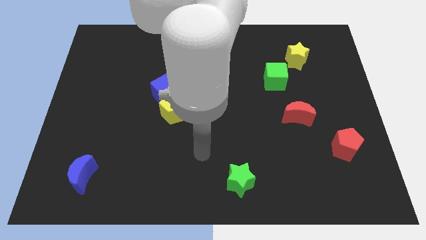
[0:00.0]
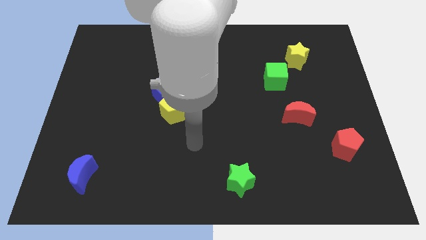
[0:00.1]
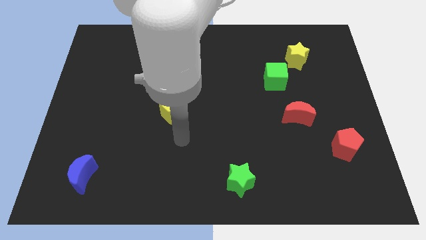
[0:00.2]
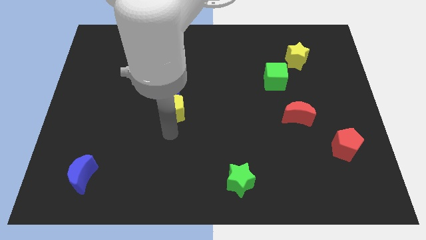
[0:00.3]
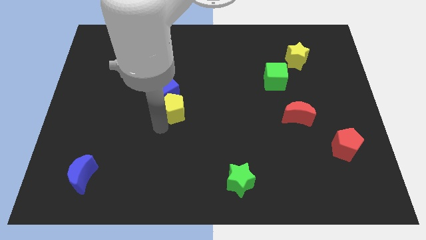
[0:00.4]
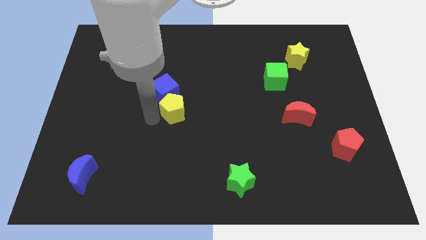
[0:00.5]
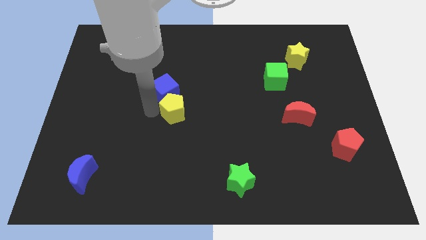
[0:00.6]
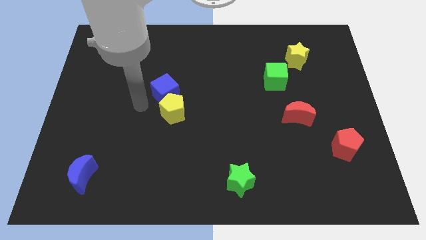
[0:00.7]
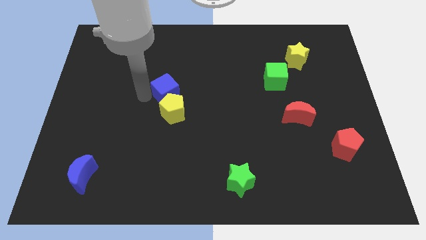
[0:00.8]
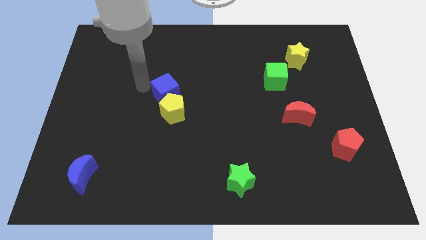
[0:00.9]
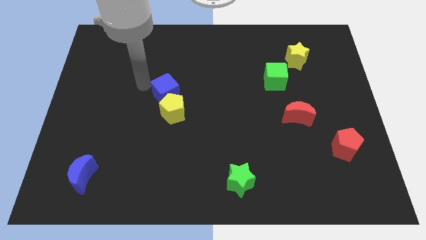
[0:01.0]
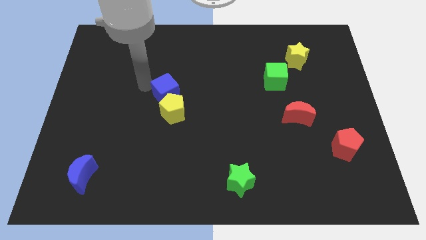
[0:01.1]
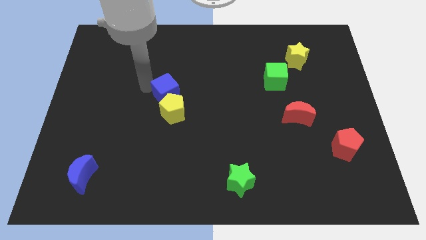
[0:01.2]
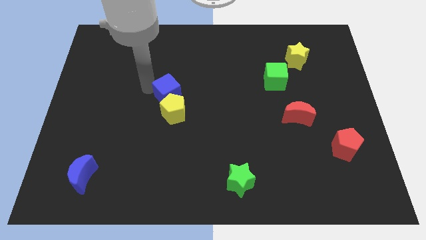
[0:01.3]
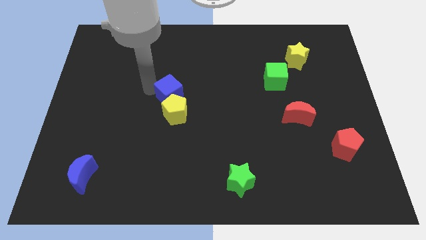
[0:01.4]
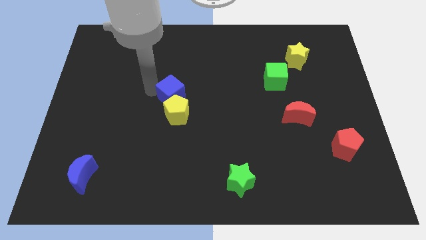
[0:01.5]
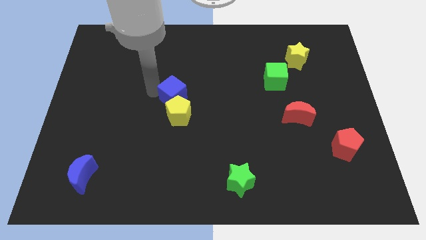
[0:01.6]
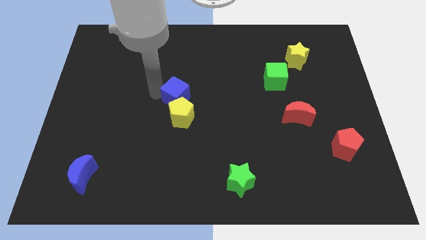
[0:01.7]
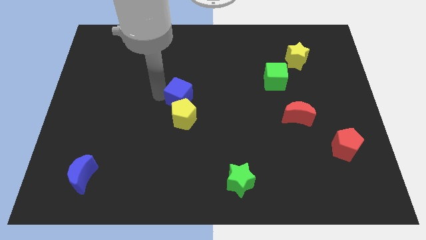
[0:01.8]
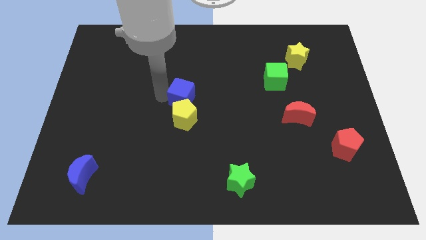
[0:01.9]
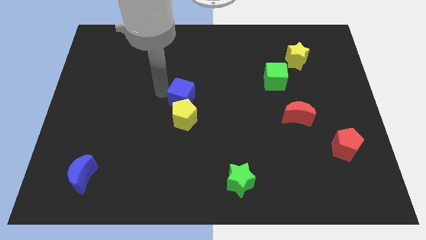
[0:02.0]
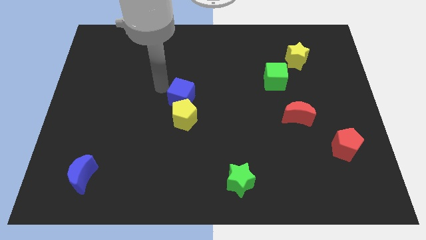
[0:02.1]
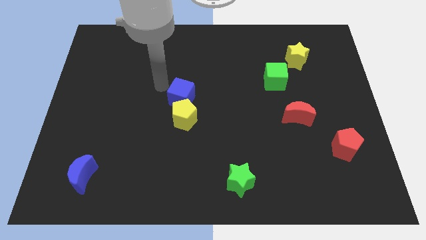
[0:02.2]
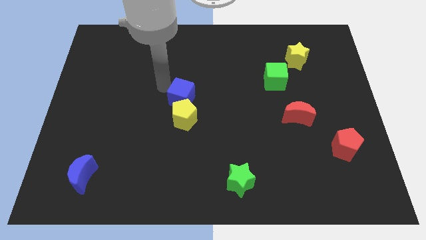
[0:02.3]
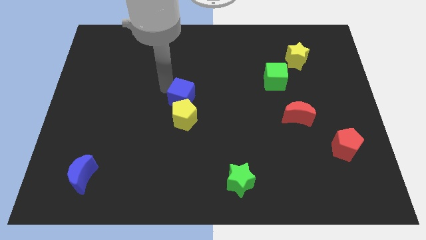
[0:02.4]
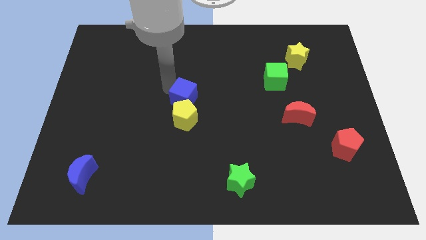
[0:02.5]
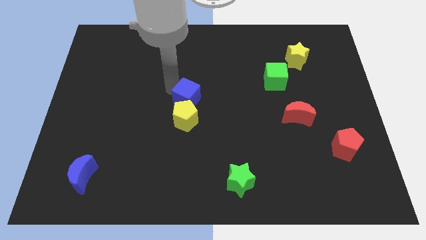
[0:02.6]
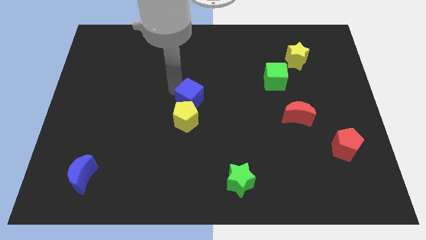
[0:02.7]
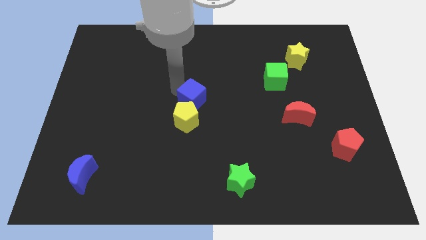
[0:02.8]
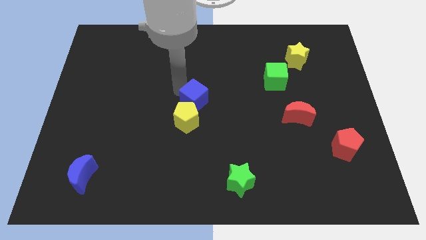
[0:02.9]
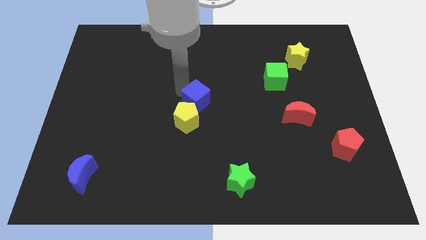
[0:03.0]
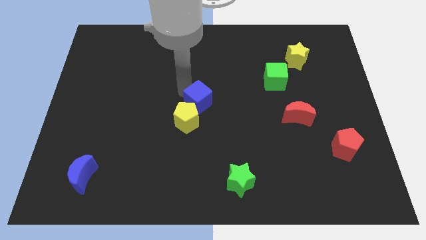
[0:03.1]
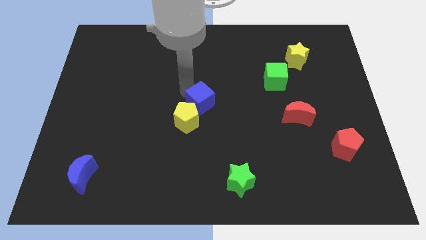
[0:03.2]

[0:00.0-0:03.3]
slide the blue cube diagonally down and right a bit

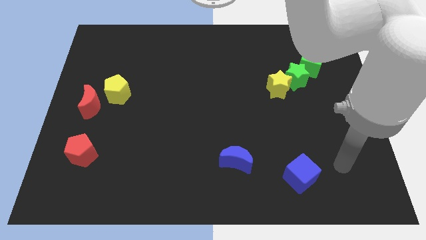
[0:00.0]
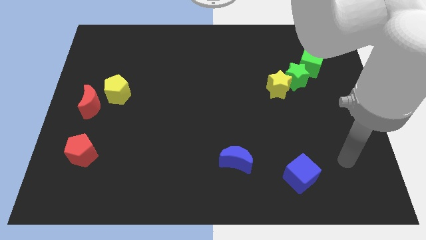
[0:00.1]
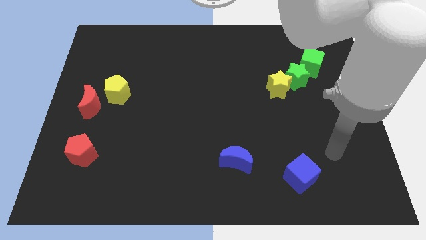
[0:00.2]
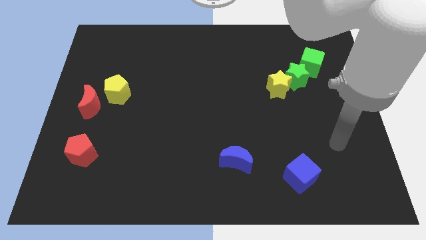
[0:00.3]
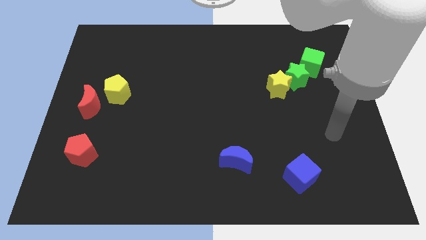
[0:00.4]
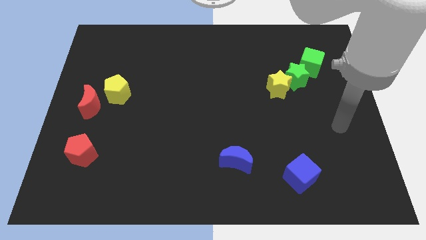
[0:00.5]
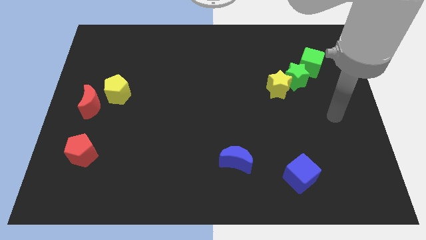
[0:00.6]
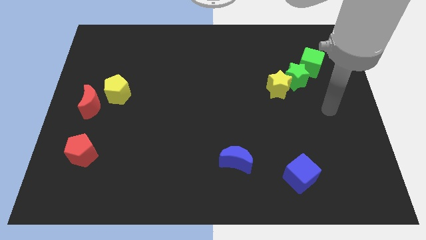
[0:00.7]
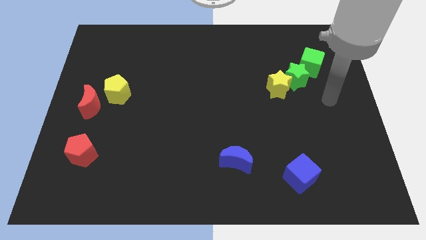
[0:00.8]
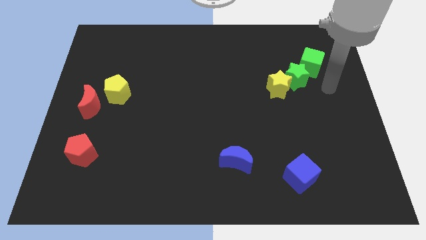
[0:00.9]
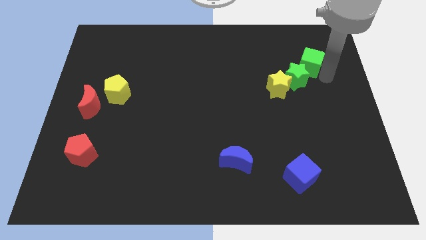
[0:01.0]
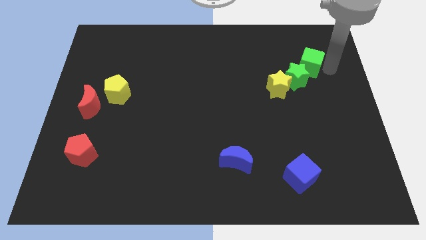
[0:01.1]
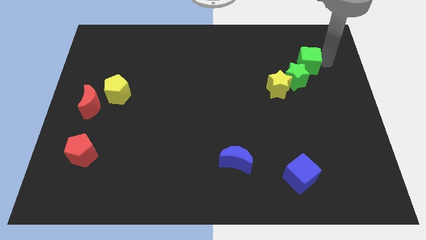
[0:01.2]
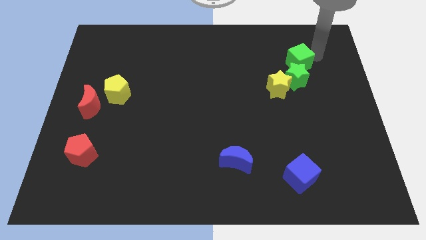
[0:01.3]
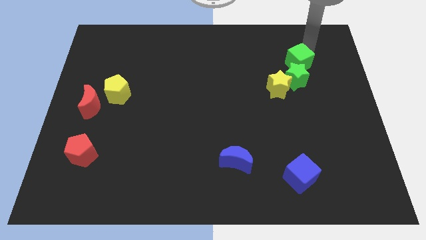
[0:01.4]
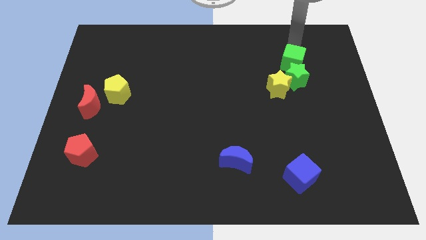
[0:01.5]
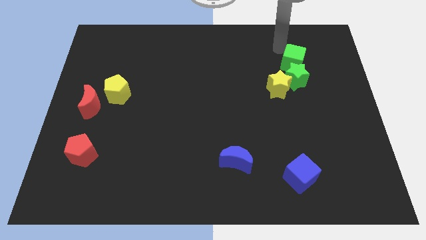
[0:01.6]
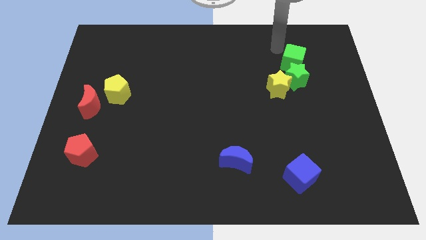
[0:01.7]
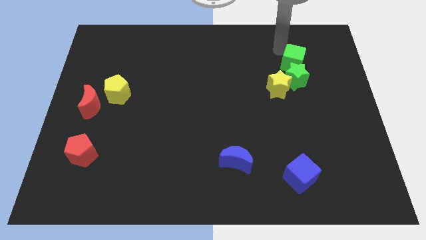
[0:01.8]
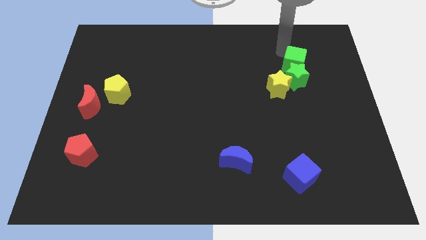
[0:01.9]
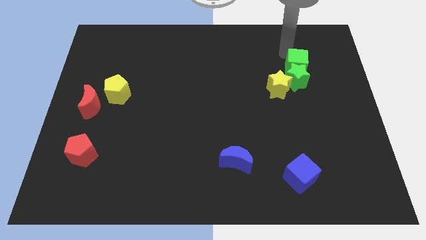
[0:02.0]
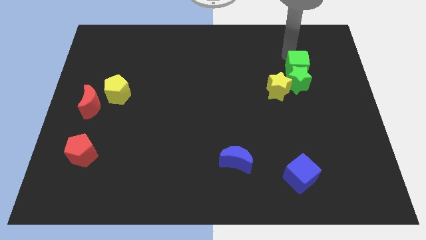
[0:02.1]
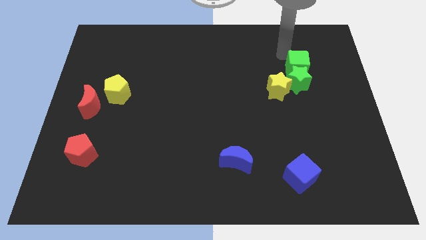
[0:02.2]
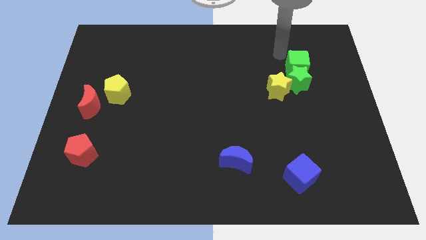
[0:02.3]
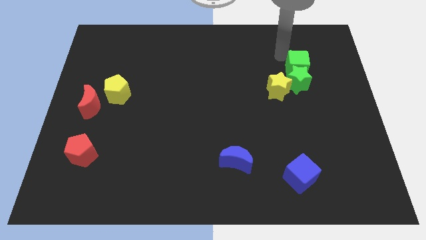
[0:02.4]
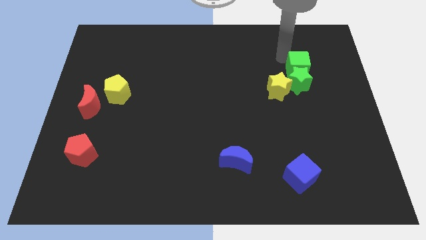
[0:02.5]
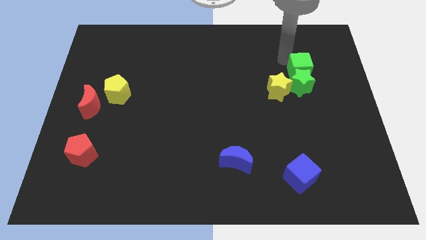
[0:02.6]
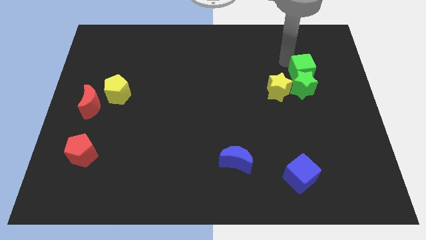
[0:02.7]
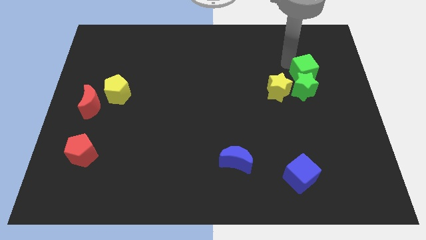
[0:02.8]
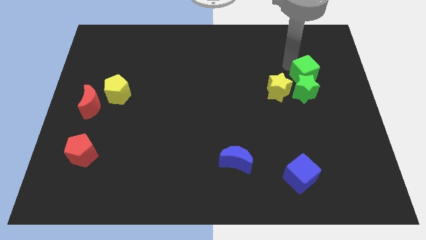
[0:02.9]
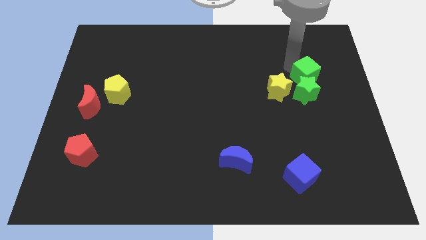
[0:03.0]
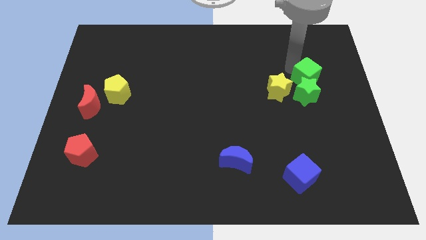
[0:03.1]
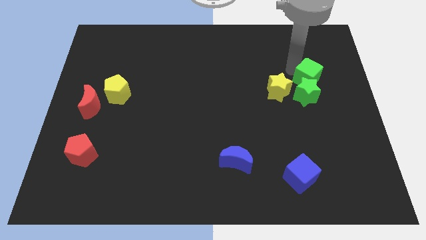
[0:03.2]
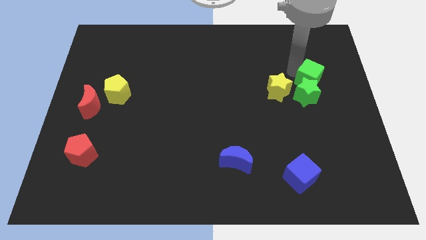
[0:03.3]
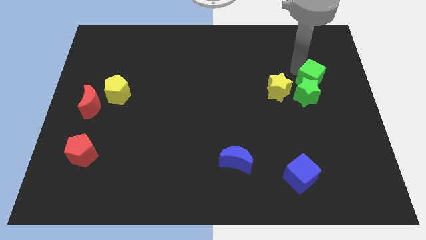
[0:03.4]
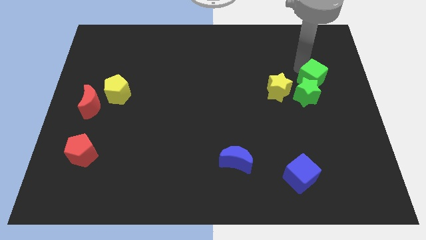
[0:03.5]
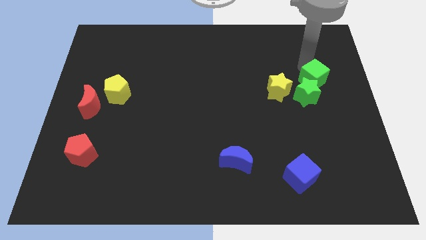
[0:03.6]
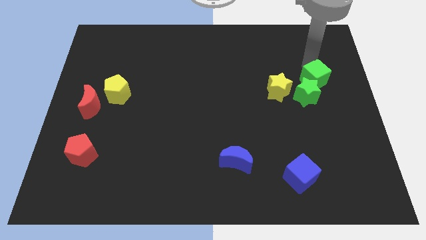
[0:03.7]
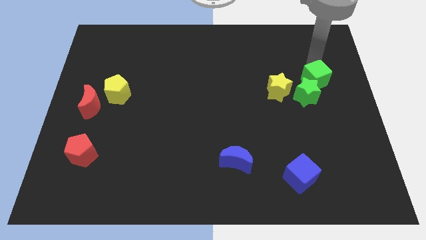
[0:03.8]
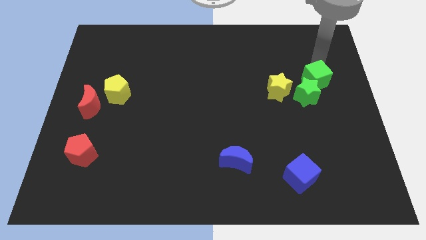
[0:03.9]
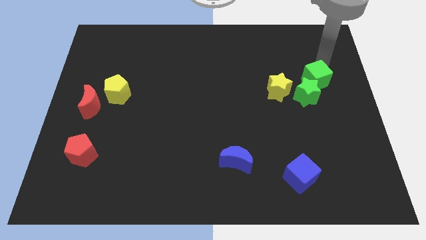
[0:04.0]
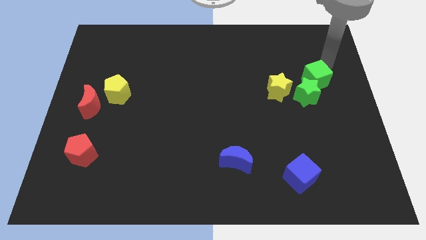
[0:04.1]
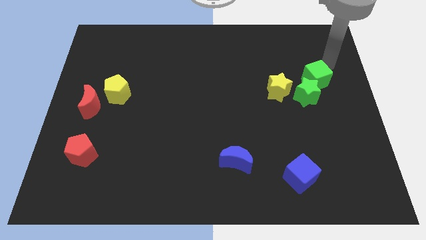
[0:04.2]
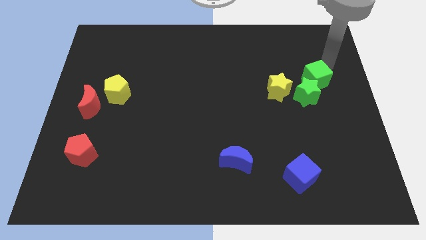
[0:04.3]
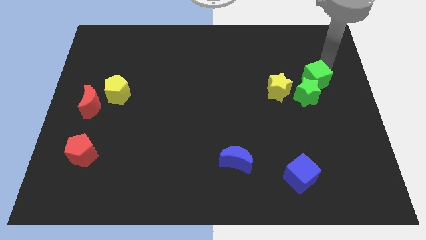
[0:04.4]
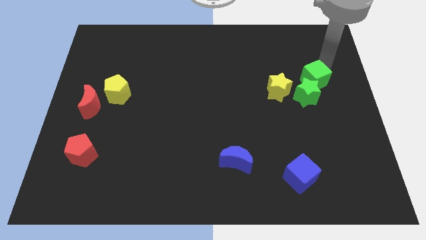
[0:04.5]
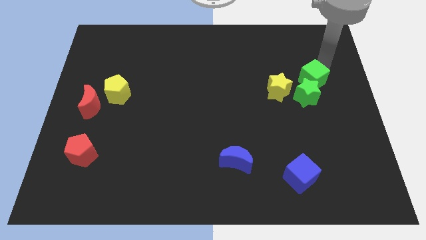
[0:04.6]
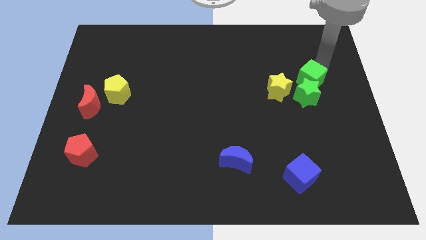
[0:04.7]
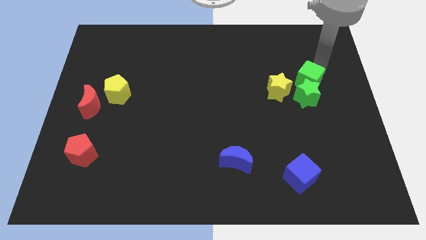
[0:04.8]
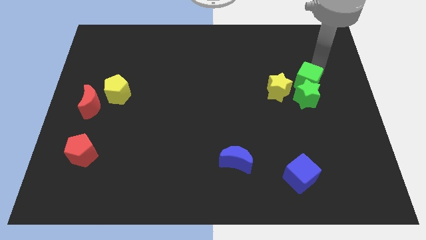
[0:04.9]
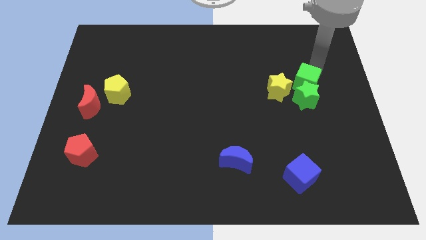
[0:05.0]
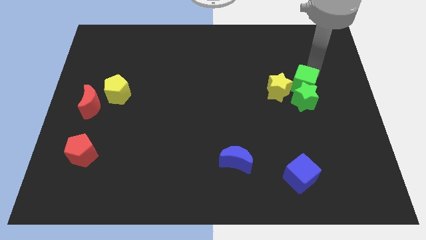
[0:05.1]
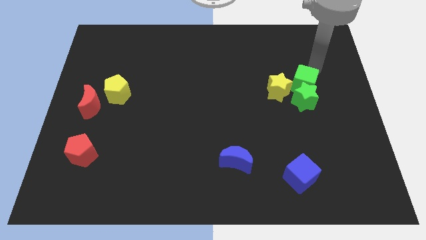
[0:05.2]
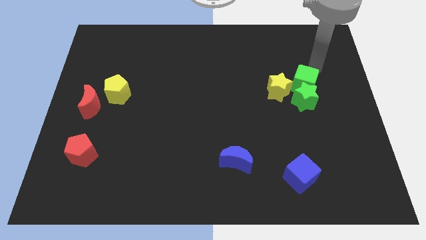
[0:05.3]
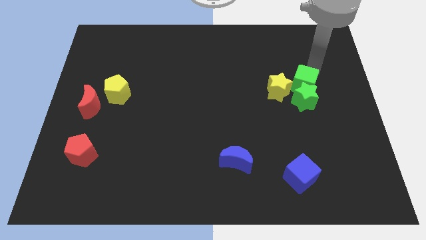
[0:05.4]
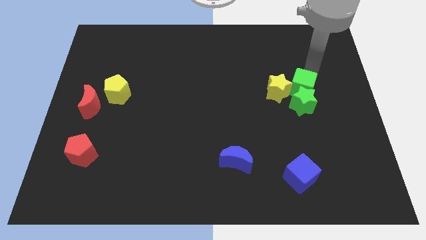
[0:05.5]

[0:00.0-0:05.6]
move the green cube down and then left somewhat
